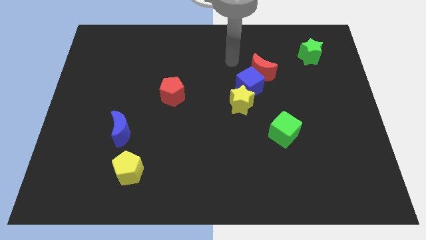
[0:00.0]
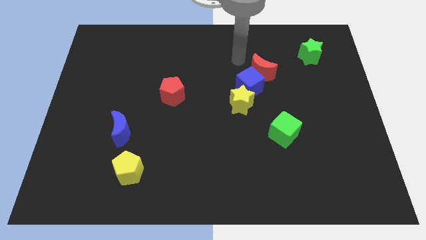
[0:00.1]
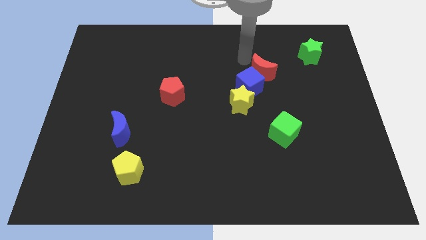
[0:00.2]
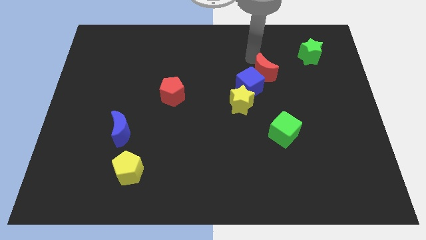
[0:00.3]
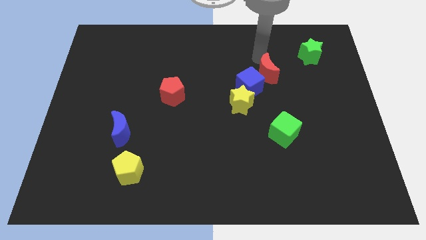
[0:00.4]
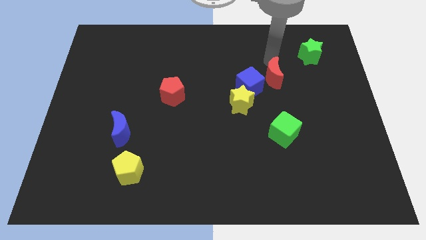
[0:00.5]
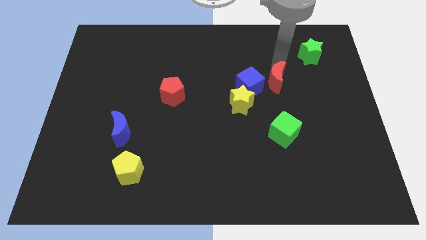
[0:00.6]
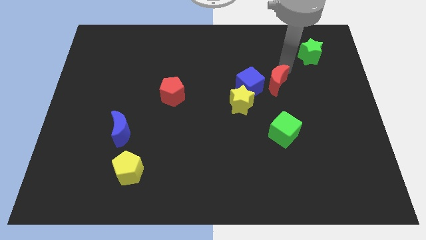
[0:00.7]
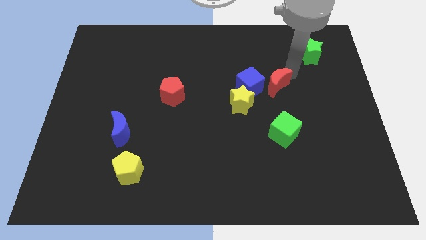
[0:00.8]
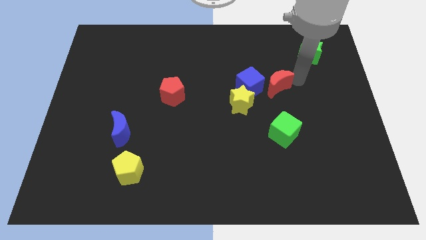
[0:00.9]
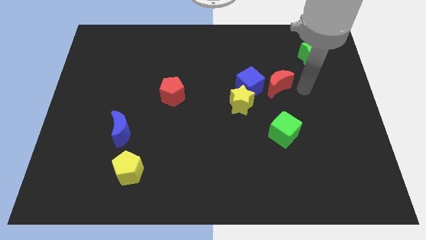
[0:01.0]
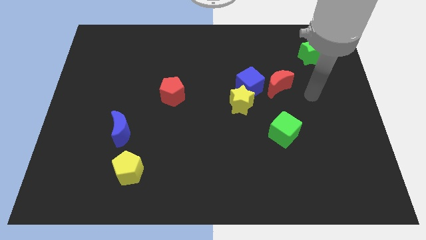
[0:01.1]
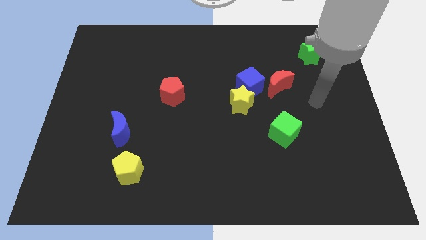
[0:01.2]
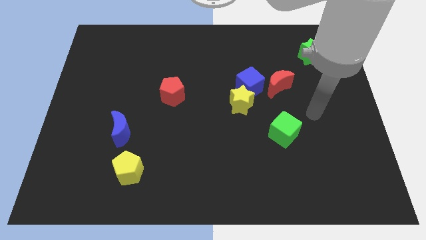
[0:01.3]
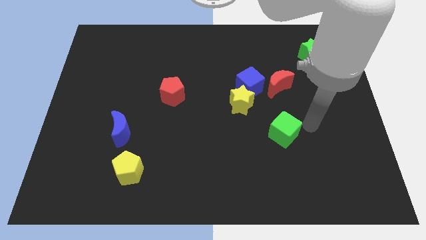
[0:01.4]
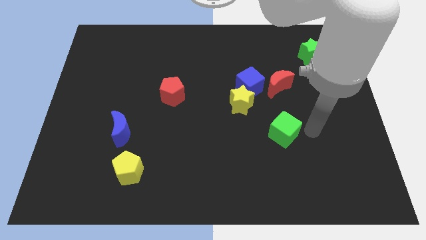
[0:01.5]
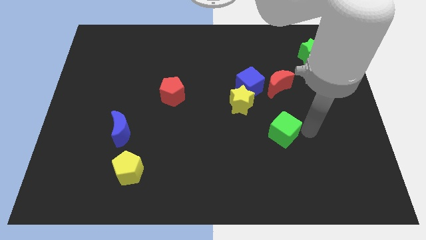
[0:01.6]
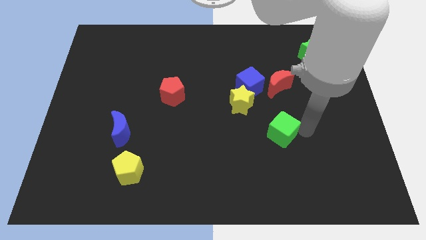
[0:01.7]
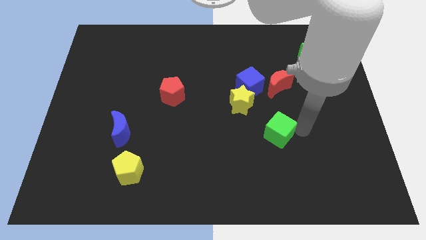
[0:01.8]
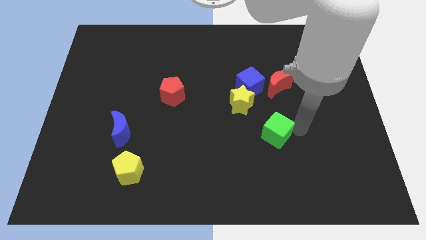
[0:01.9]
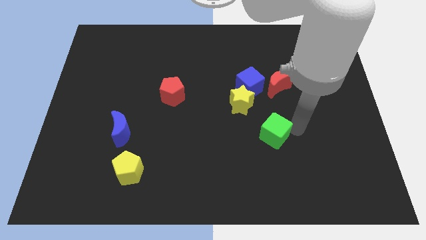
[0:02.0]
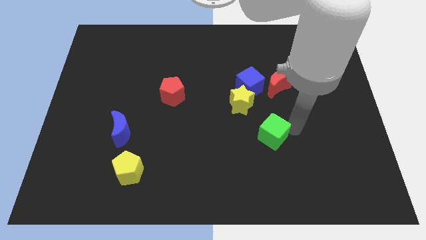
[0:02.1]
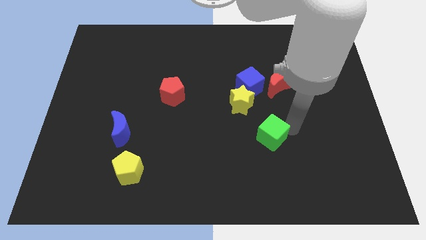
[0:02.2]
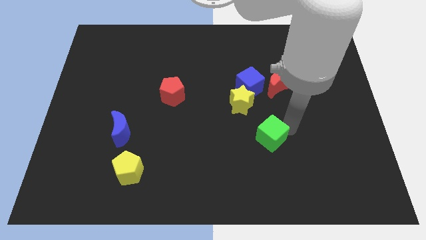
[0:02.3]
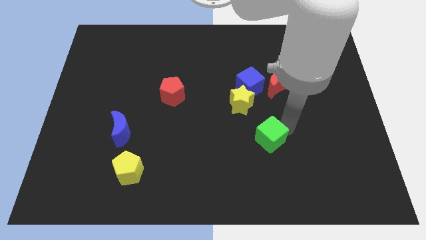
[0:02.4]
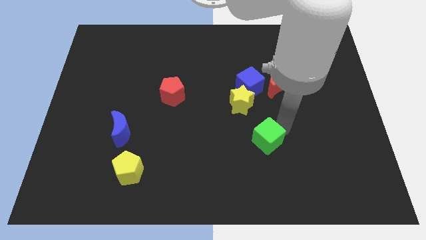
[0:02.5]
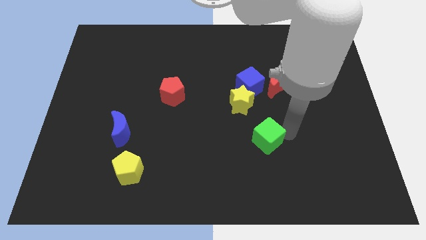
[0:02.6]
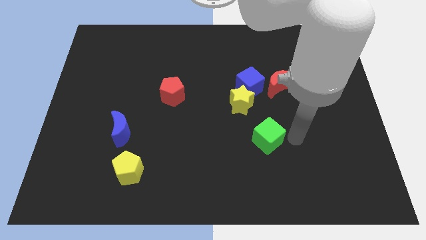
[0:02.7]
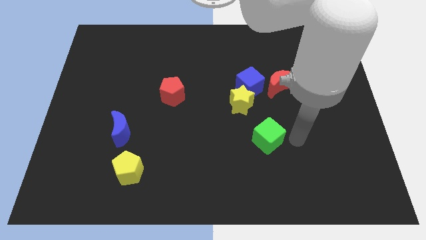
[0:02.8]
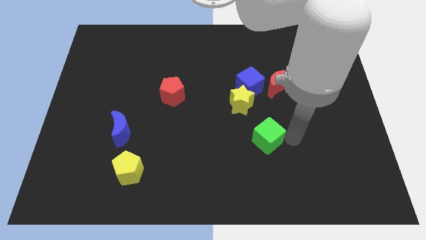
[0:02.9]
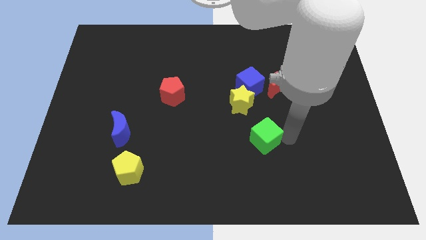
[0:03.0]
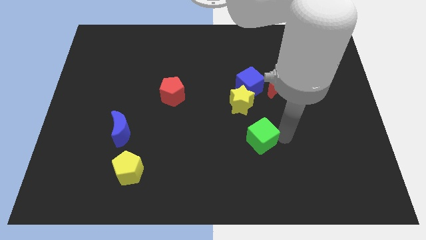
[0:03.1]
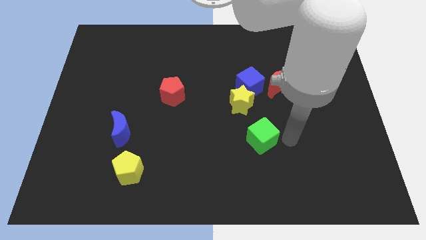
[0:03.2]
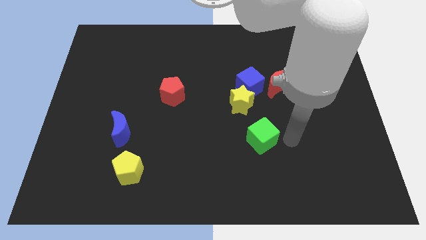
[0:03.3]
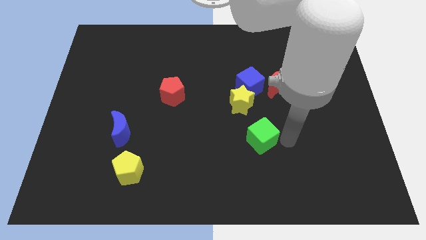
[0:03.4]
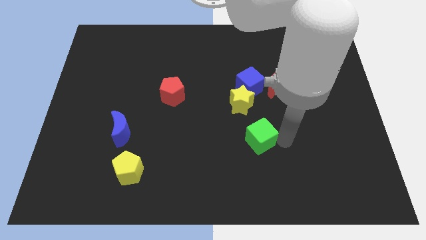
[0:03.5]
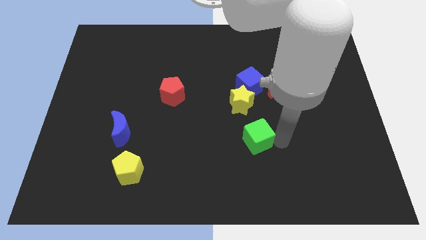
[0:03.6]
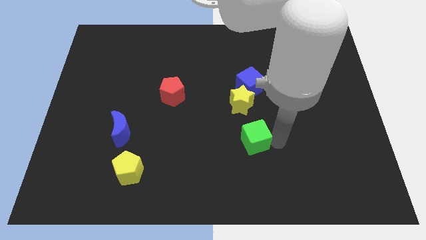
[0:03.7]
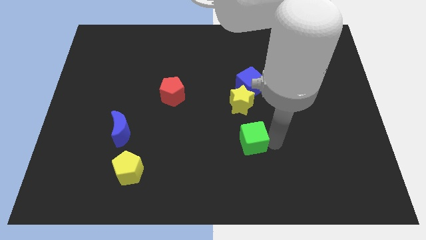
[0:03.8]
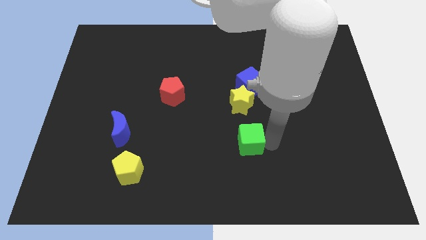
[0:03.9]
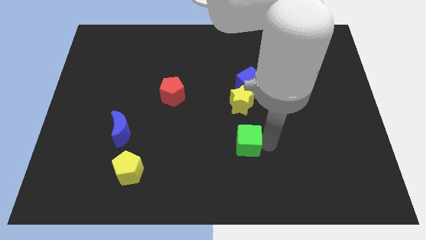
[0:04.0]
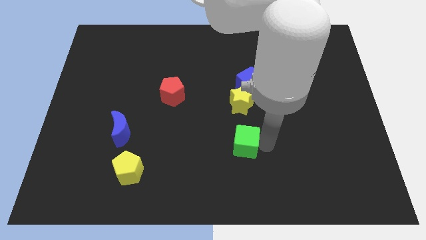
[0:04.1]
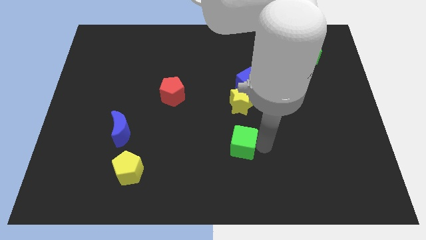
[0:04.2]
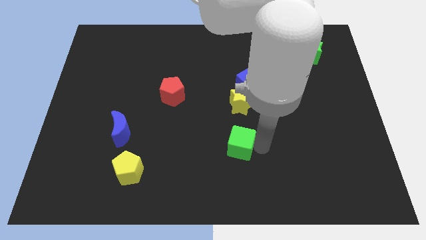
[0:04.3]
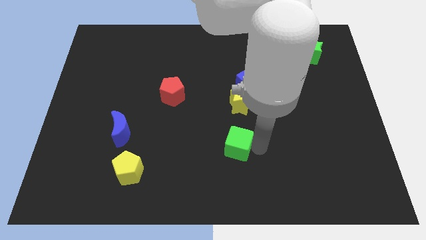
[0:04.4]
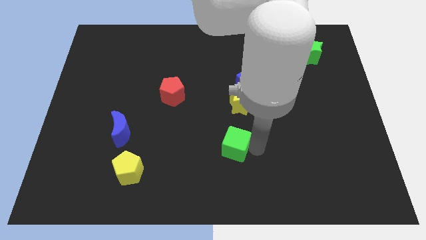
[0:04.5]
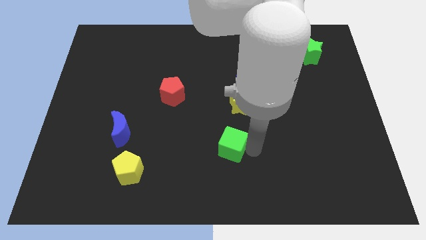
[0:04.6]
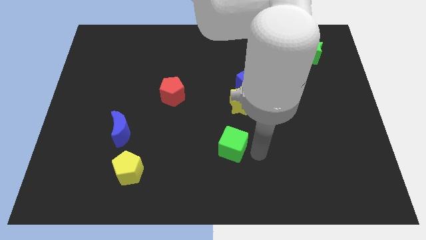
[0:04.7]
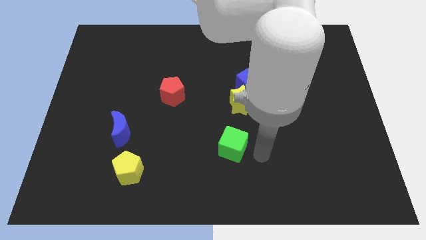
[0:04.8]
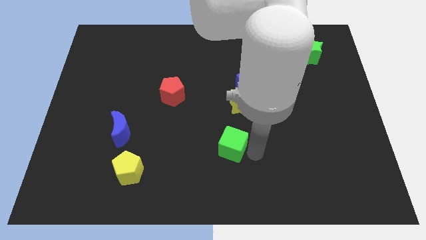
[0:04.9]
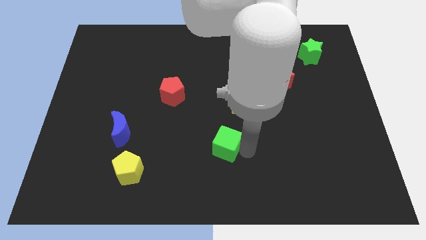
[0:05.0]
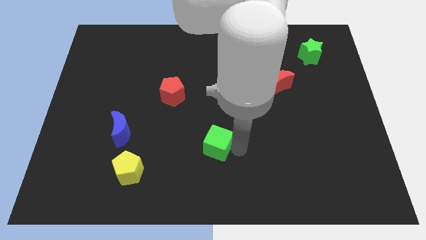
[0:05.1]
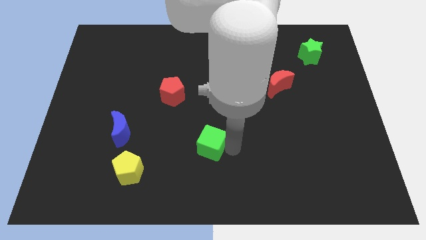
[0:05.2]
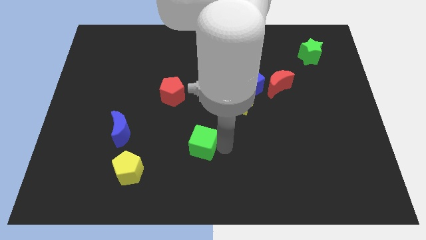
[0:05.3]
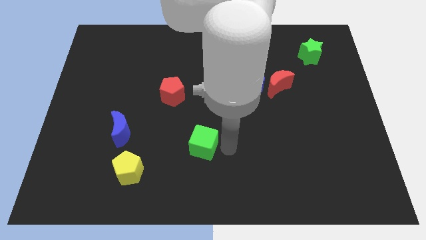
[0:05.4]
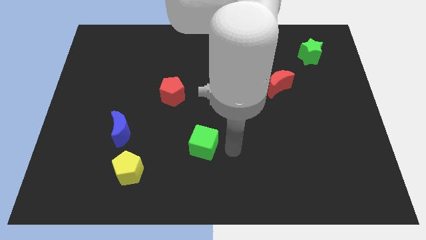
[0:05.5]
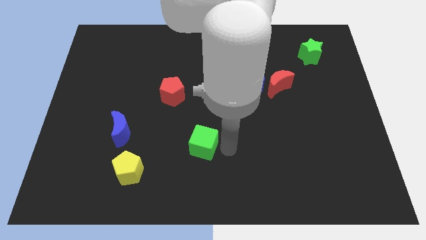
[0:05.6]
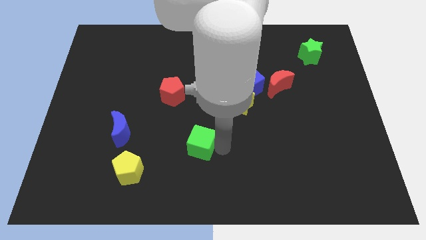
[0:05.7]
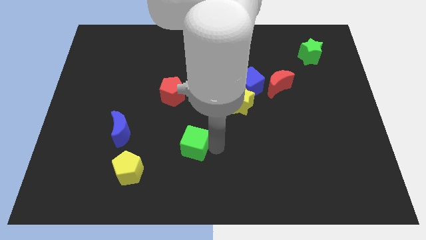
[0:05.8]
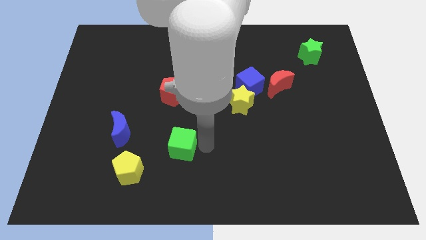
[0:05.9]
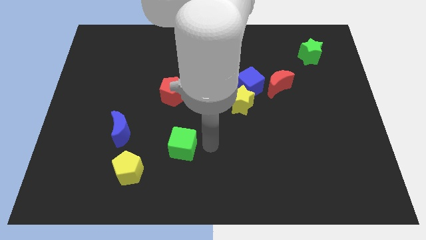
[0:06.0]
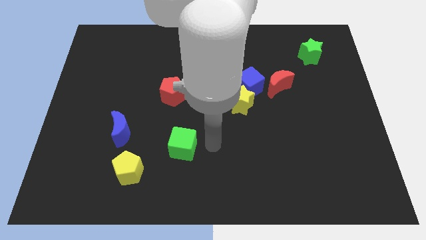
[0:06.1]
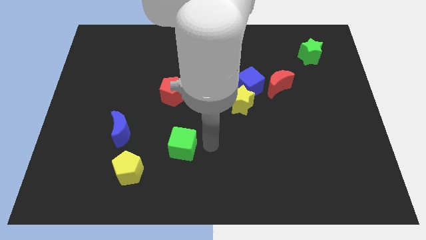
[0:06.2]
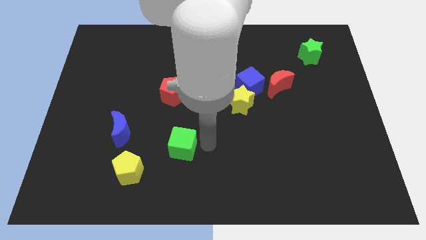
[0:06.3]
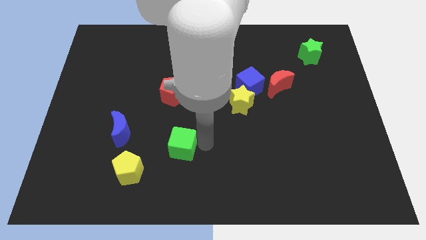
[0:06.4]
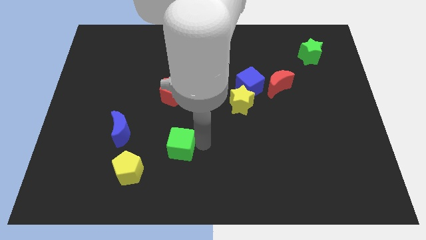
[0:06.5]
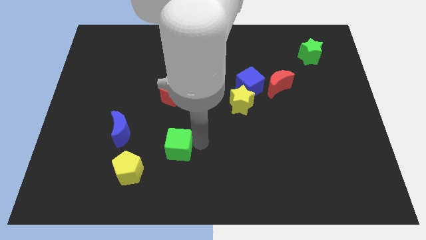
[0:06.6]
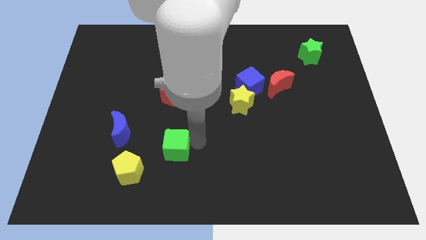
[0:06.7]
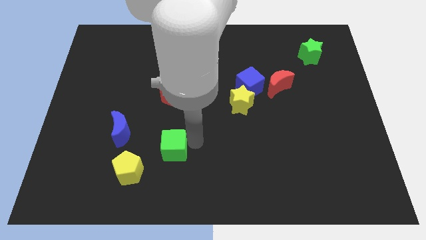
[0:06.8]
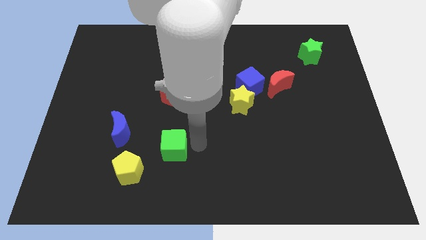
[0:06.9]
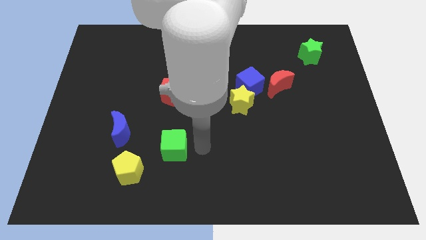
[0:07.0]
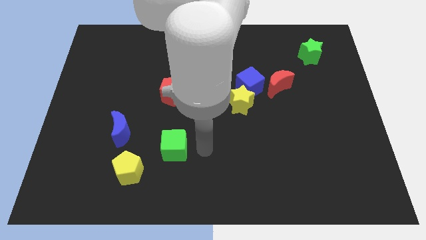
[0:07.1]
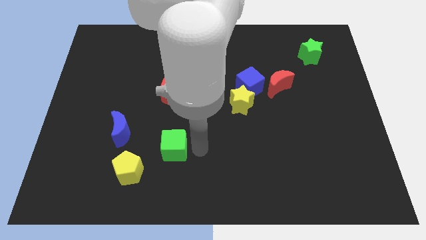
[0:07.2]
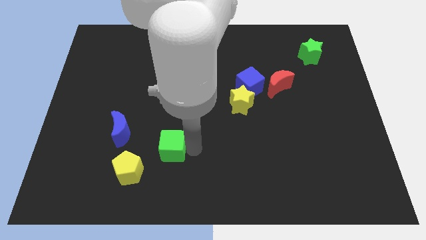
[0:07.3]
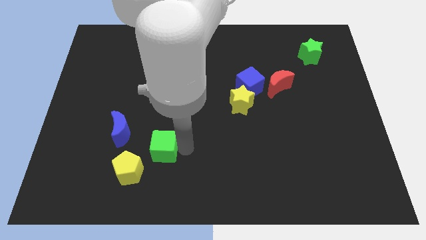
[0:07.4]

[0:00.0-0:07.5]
move the green cube to the bottom right of the blue moon
